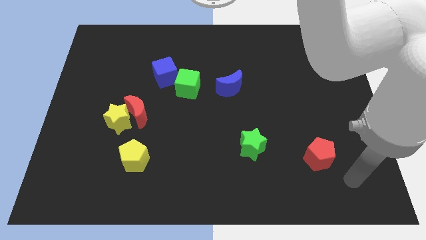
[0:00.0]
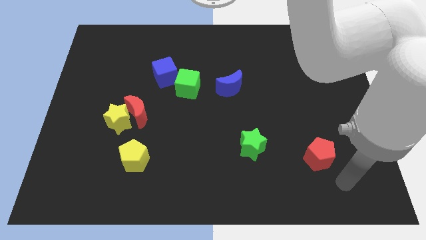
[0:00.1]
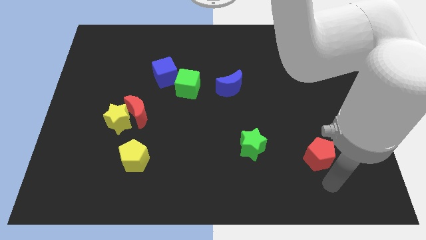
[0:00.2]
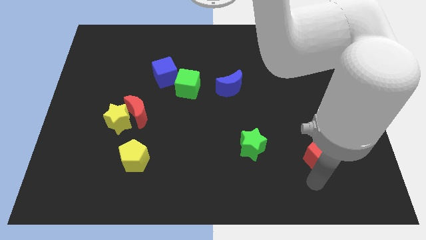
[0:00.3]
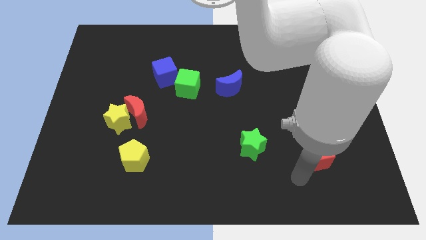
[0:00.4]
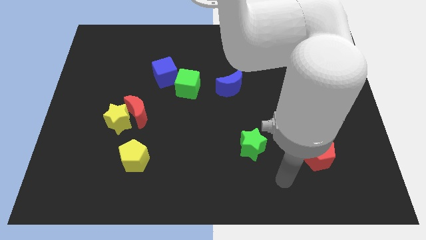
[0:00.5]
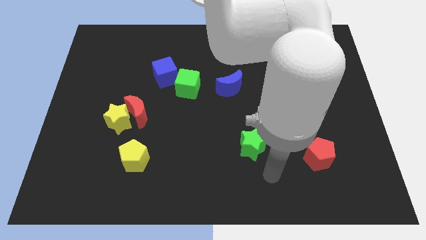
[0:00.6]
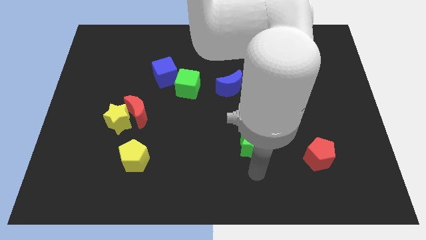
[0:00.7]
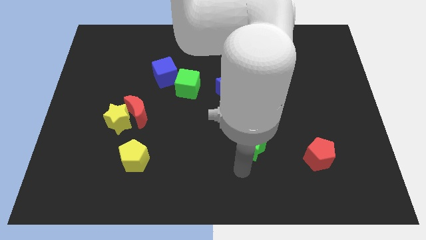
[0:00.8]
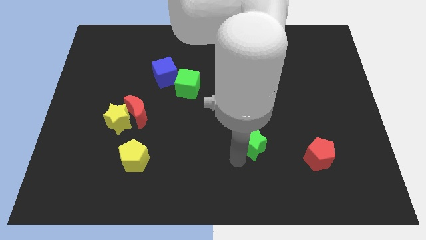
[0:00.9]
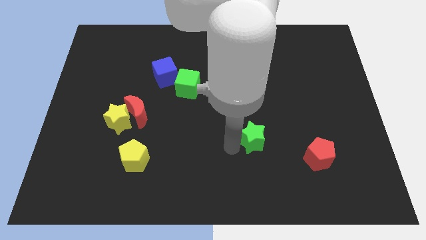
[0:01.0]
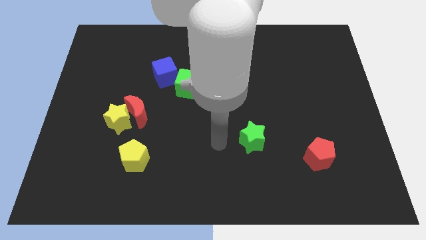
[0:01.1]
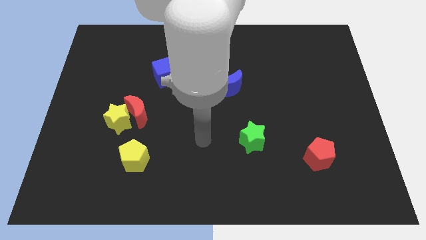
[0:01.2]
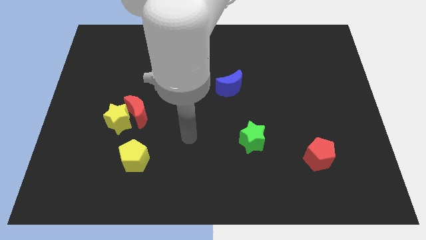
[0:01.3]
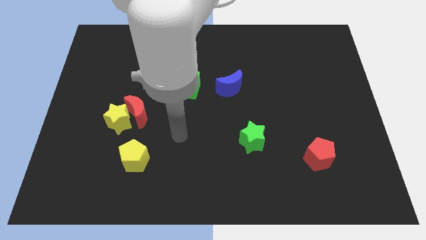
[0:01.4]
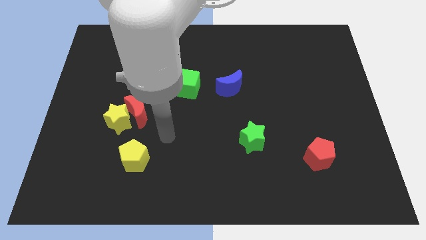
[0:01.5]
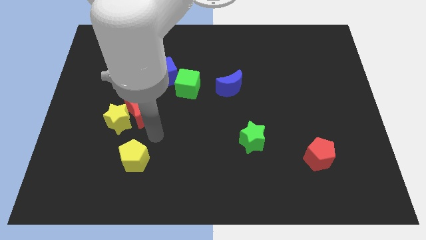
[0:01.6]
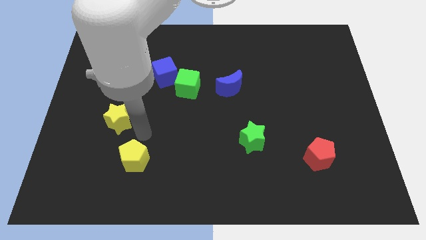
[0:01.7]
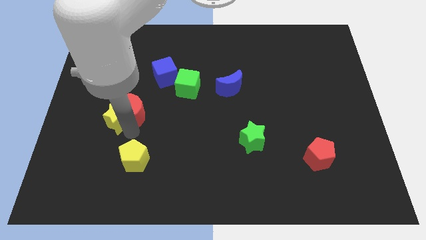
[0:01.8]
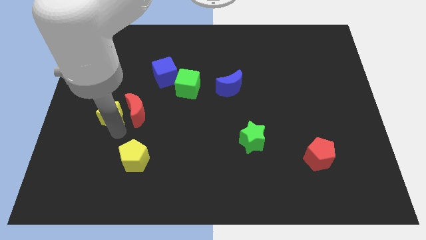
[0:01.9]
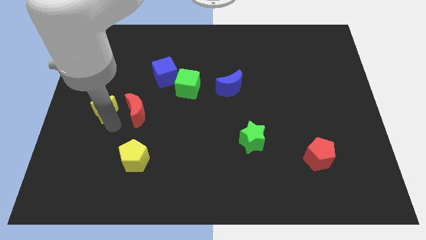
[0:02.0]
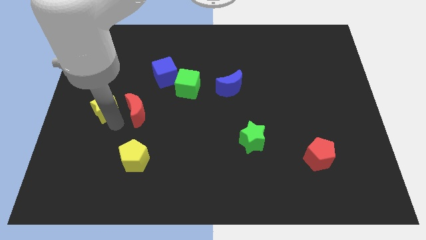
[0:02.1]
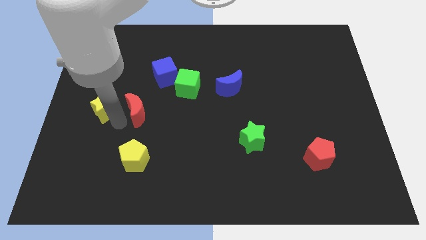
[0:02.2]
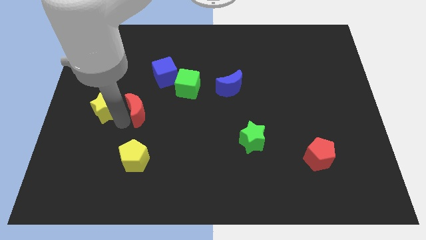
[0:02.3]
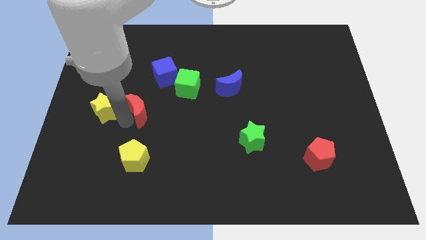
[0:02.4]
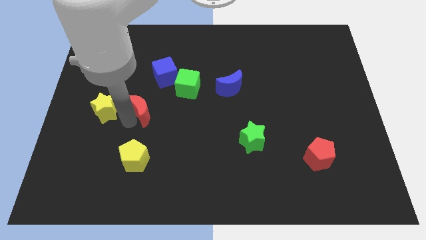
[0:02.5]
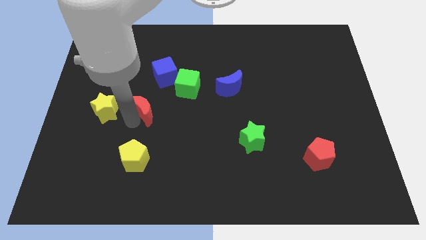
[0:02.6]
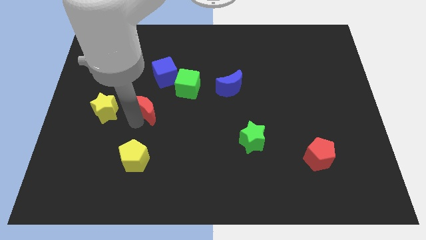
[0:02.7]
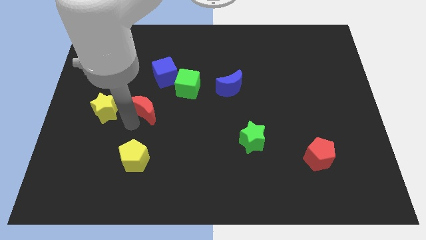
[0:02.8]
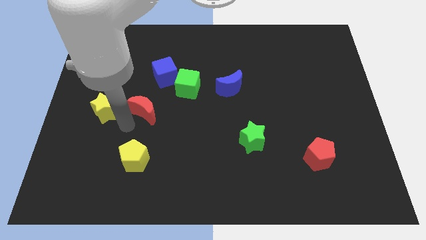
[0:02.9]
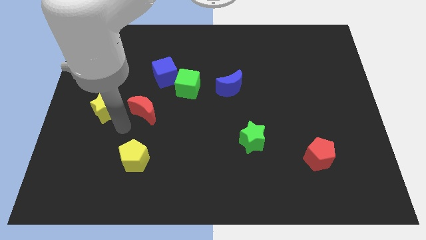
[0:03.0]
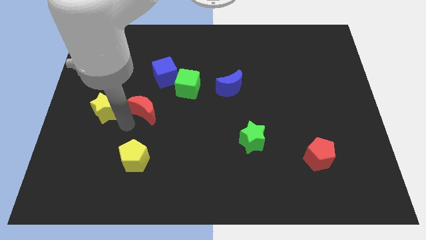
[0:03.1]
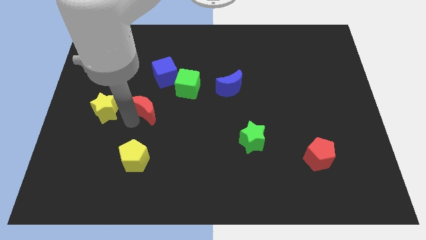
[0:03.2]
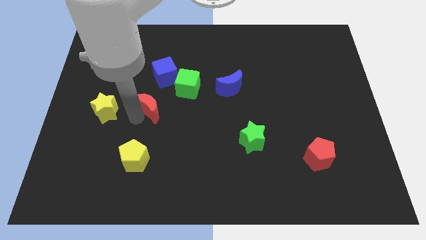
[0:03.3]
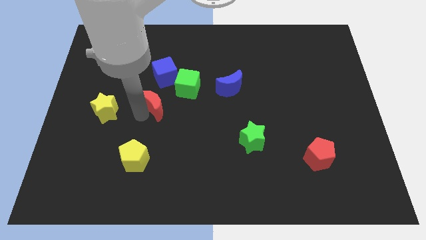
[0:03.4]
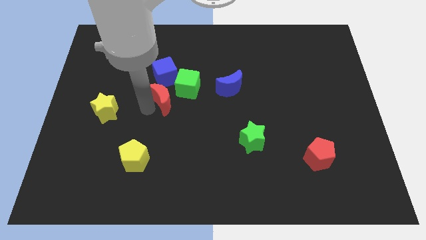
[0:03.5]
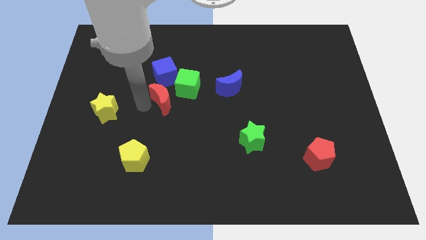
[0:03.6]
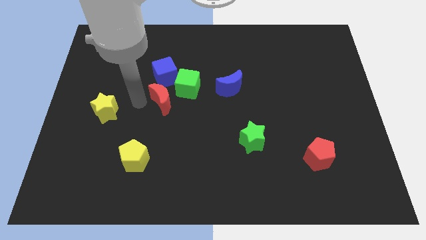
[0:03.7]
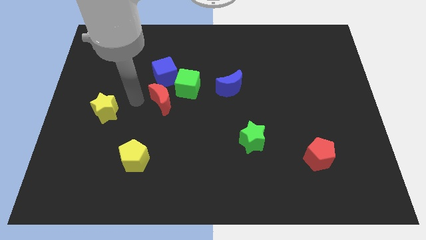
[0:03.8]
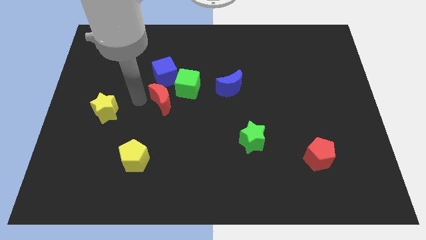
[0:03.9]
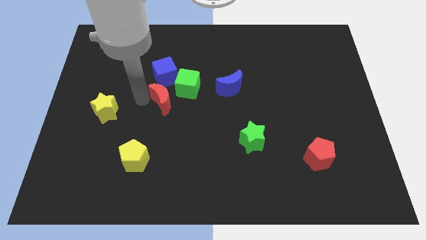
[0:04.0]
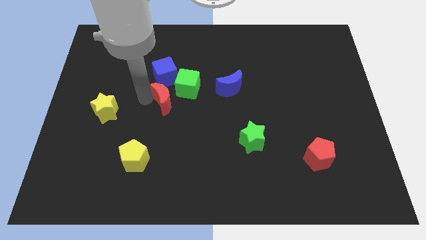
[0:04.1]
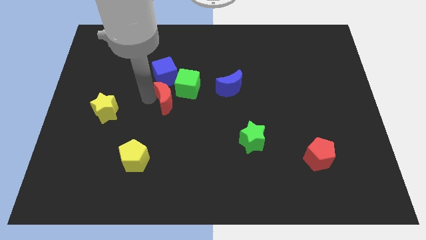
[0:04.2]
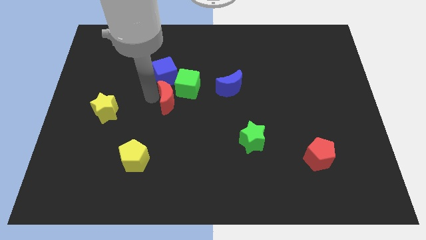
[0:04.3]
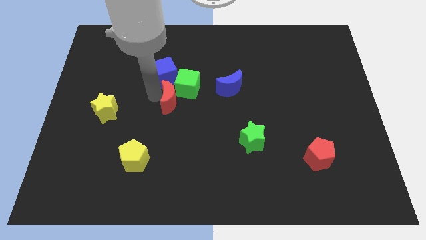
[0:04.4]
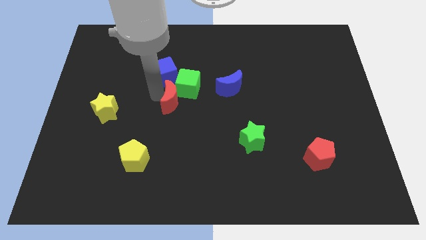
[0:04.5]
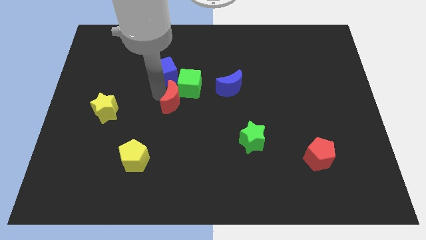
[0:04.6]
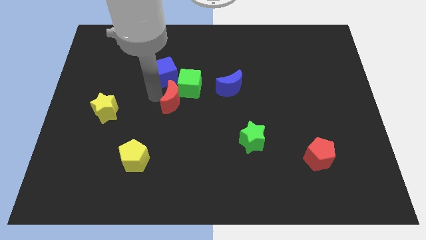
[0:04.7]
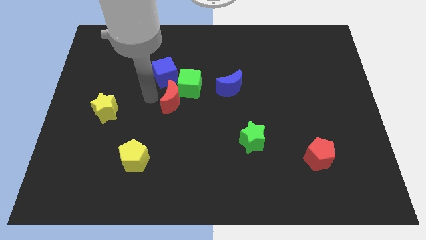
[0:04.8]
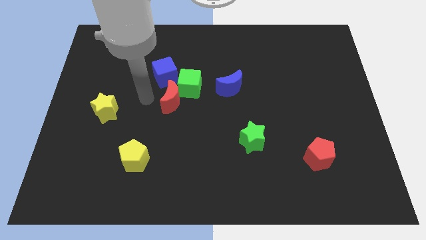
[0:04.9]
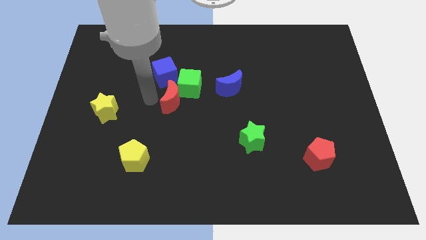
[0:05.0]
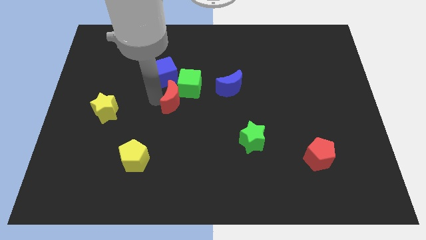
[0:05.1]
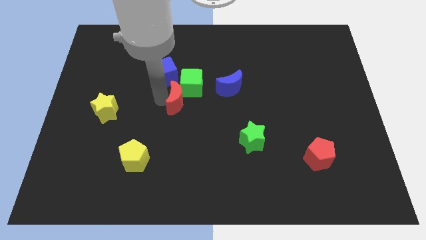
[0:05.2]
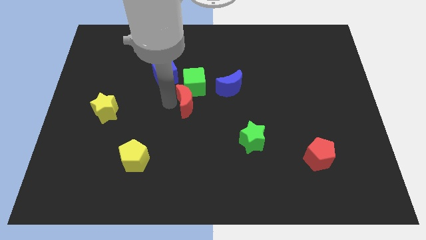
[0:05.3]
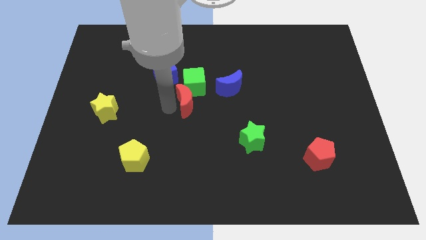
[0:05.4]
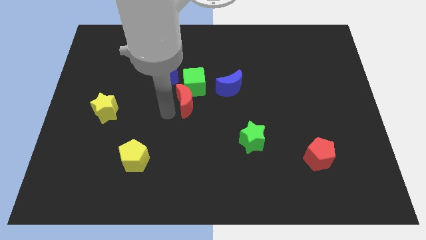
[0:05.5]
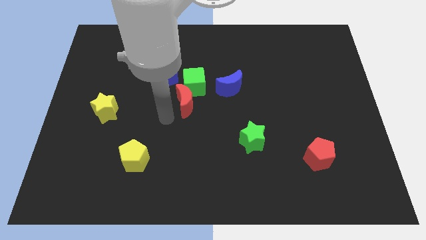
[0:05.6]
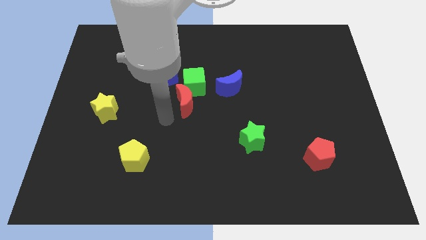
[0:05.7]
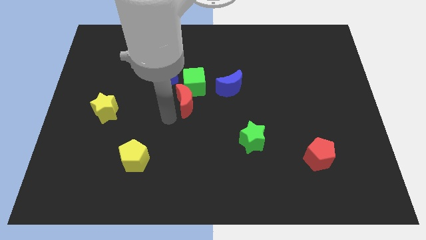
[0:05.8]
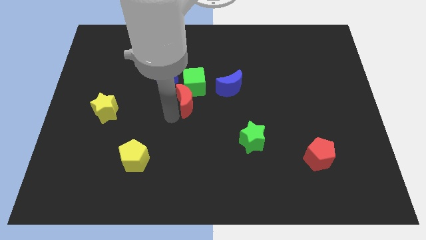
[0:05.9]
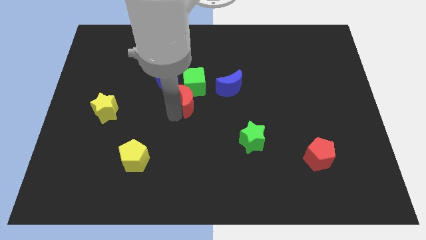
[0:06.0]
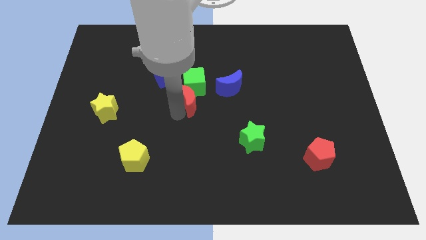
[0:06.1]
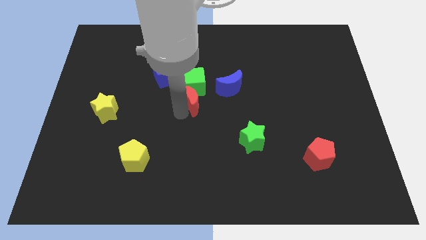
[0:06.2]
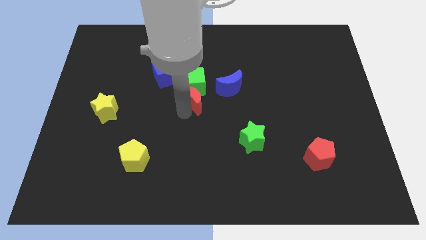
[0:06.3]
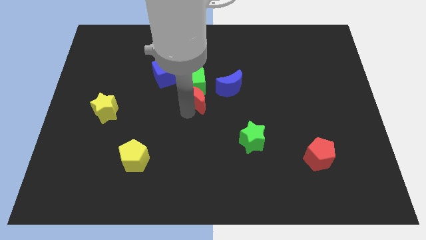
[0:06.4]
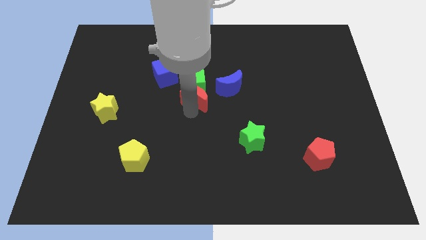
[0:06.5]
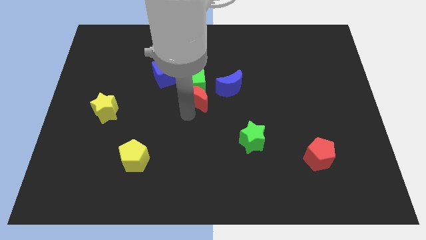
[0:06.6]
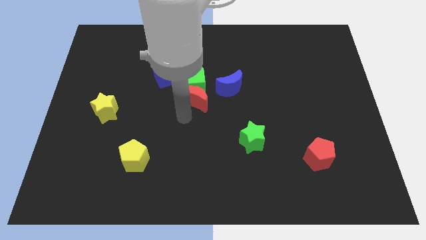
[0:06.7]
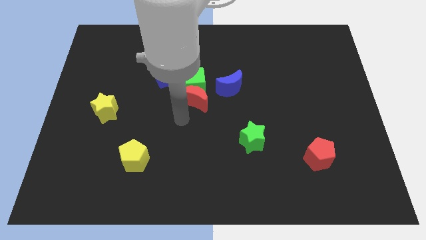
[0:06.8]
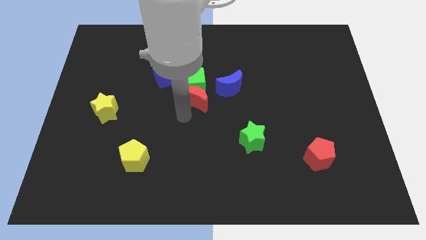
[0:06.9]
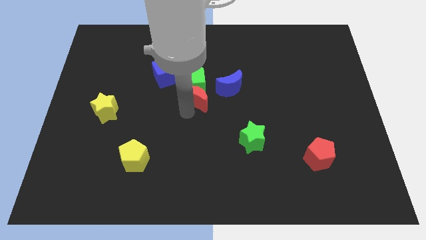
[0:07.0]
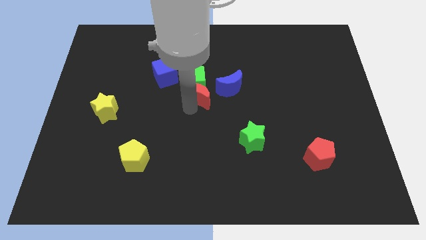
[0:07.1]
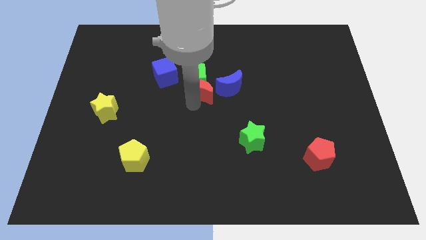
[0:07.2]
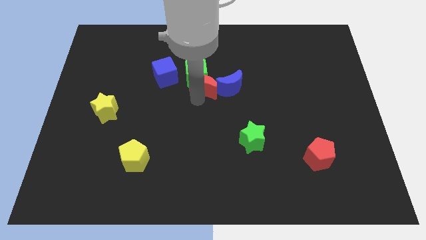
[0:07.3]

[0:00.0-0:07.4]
push the red moon to the top left of the blue moon
